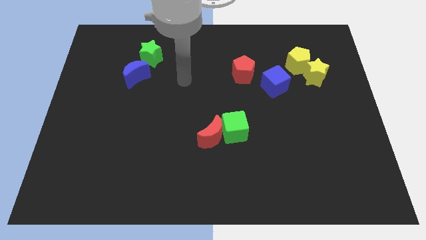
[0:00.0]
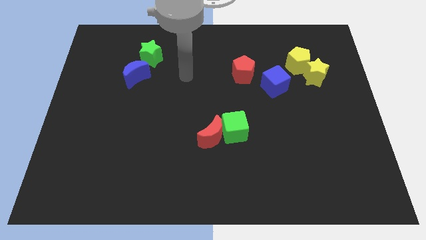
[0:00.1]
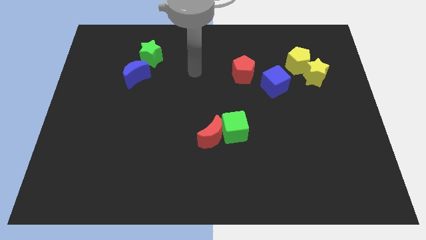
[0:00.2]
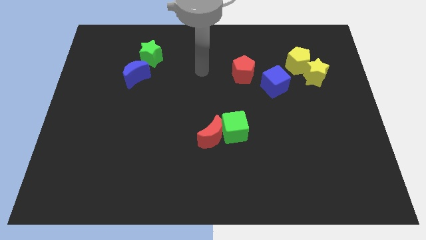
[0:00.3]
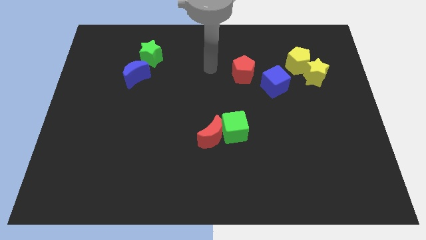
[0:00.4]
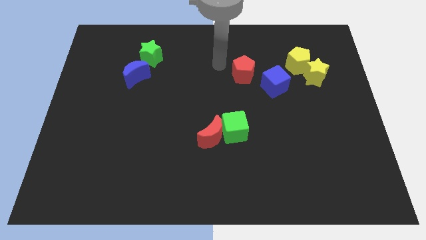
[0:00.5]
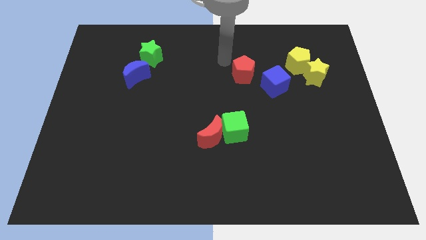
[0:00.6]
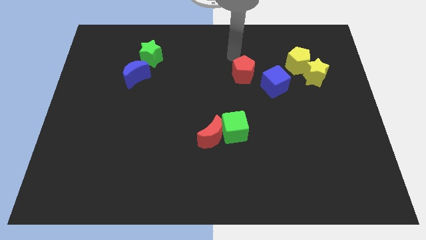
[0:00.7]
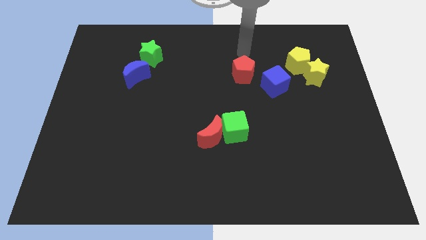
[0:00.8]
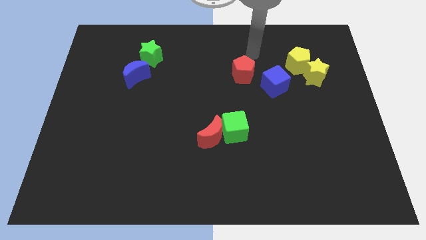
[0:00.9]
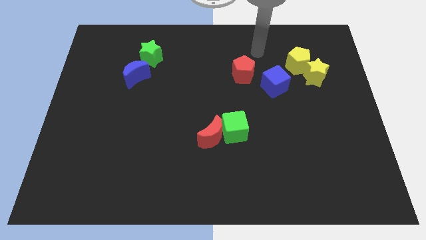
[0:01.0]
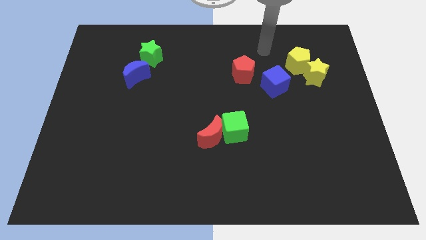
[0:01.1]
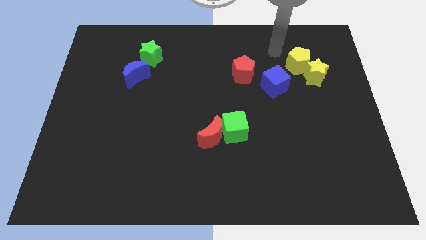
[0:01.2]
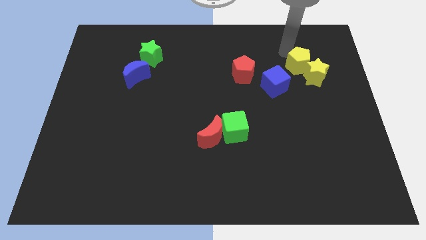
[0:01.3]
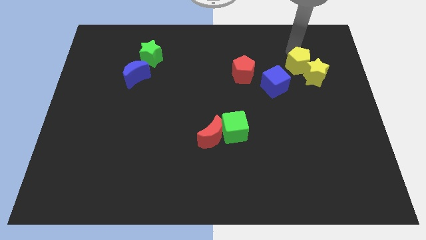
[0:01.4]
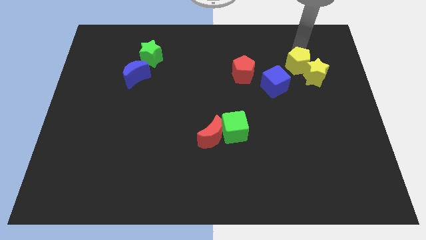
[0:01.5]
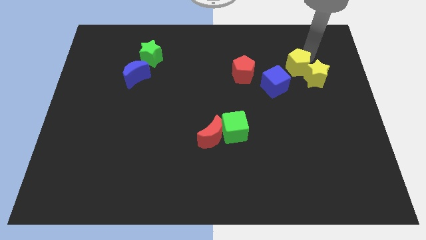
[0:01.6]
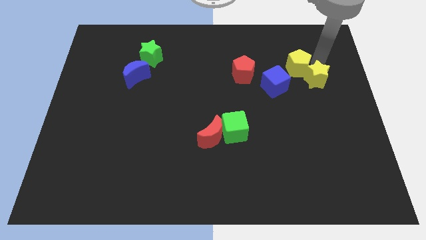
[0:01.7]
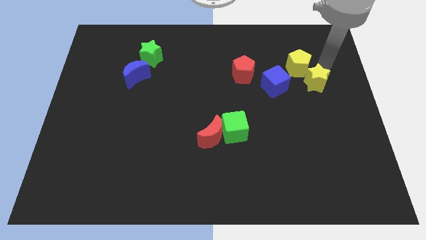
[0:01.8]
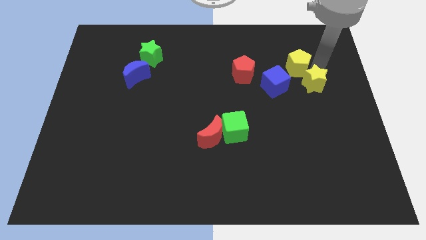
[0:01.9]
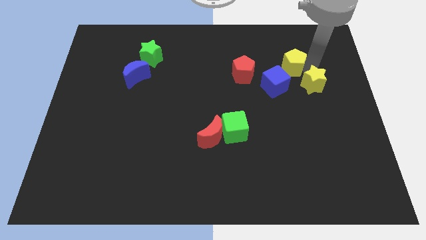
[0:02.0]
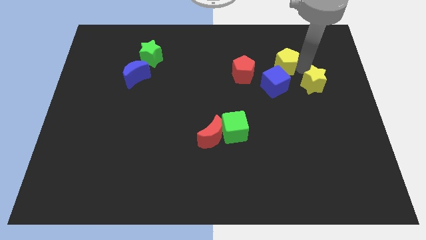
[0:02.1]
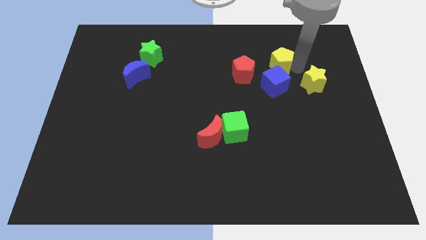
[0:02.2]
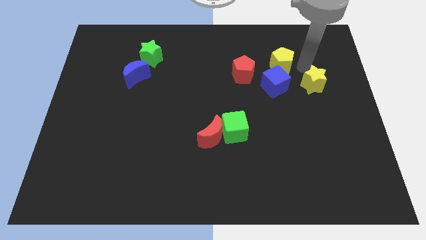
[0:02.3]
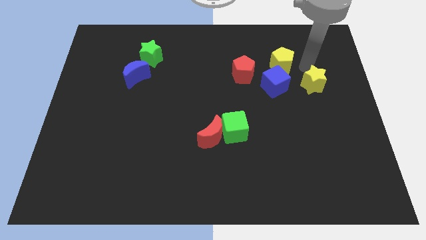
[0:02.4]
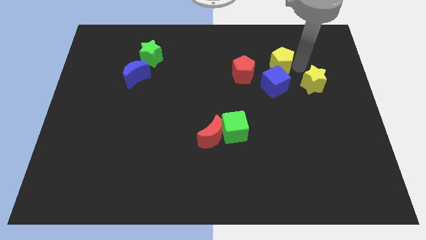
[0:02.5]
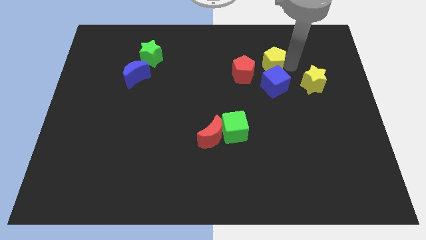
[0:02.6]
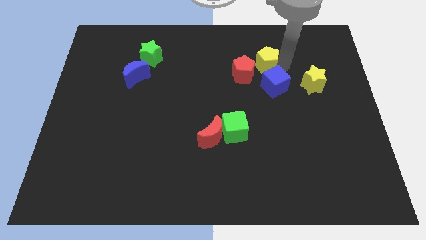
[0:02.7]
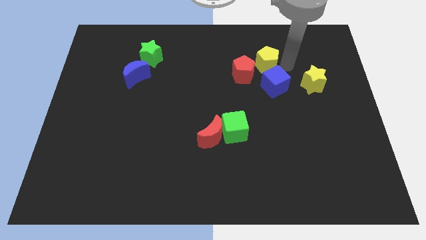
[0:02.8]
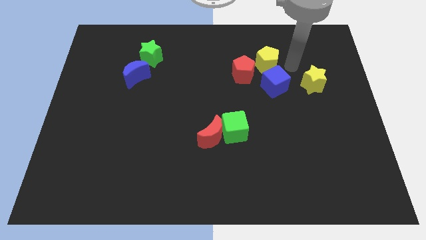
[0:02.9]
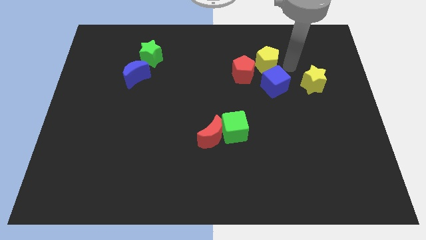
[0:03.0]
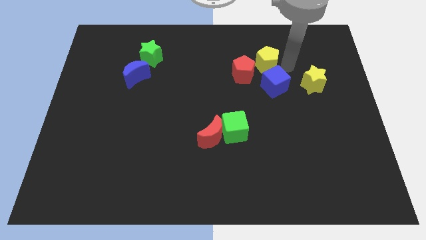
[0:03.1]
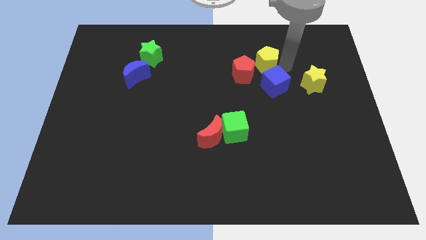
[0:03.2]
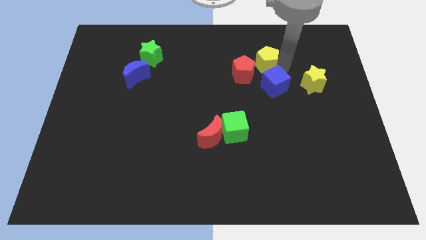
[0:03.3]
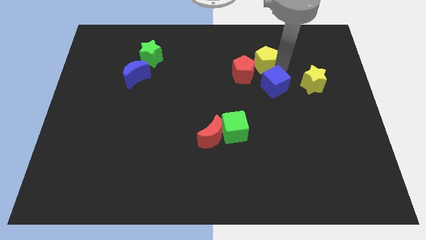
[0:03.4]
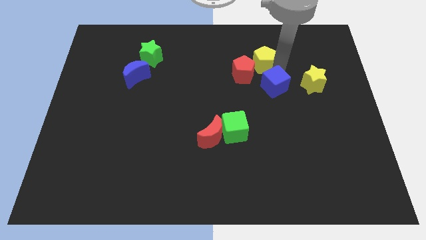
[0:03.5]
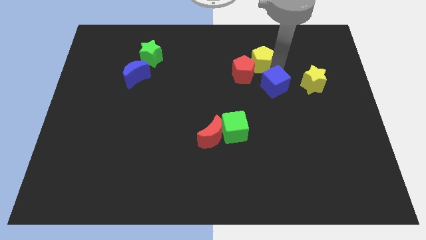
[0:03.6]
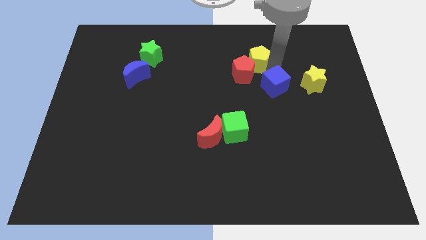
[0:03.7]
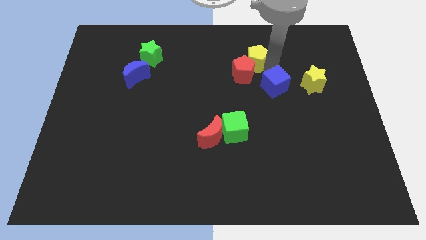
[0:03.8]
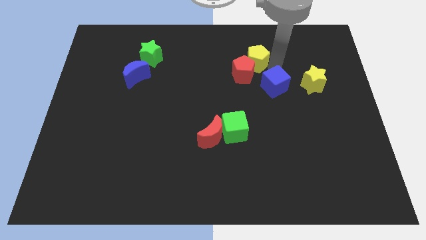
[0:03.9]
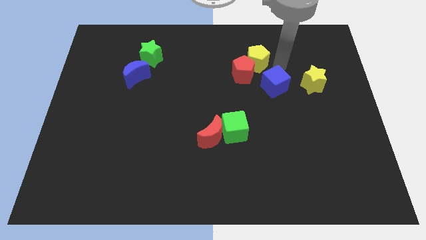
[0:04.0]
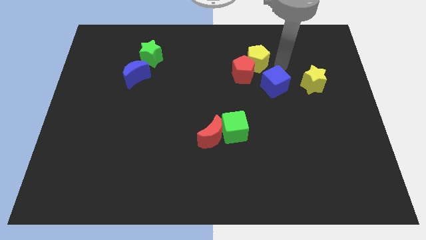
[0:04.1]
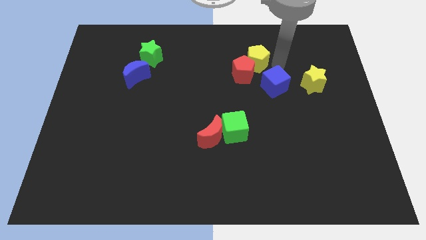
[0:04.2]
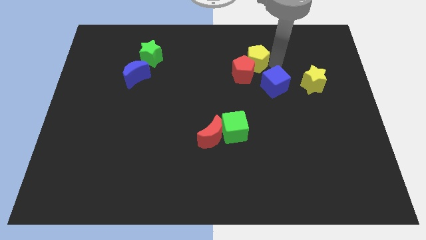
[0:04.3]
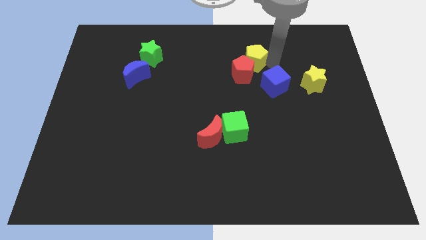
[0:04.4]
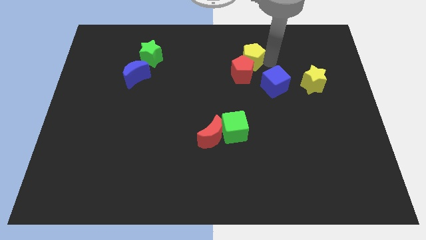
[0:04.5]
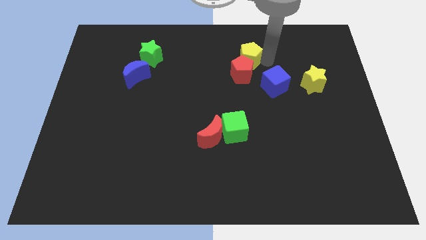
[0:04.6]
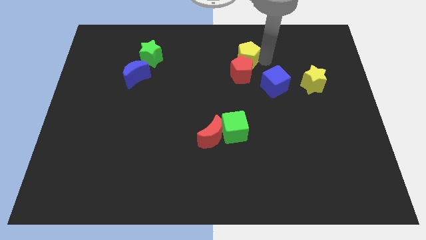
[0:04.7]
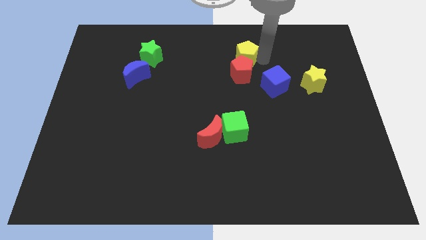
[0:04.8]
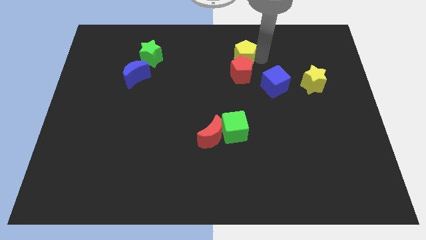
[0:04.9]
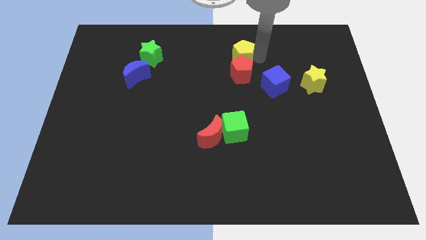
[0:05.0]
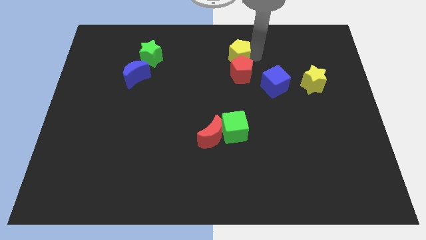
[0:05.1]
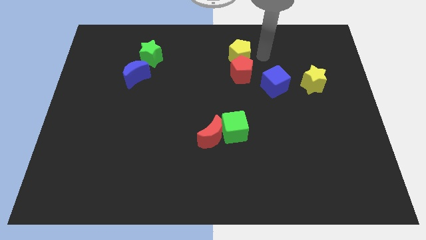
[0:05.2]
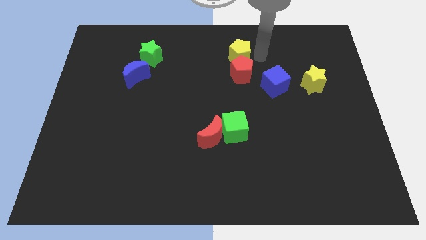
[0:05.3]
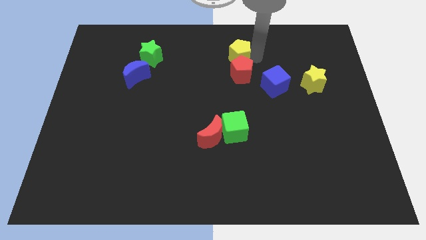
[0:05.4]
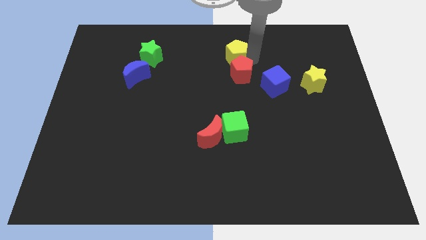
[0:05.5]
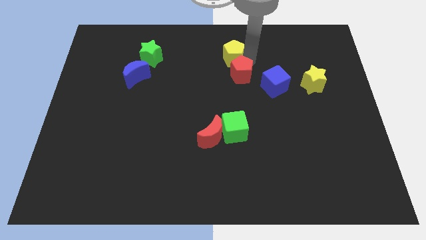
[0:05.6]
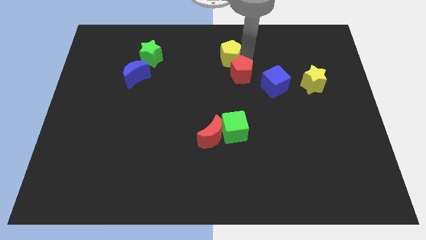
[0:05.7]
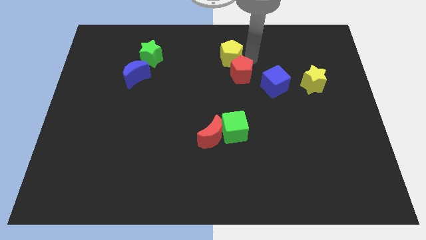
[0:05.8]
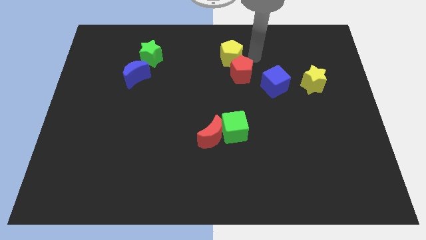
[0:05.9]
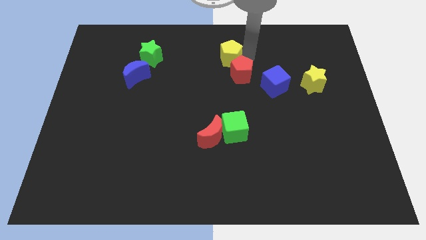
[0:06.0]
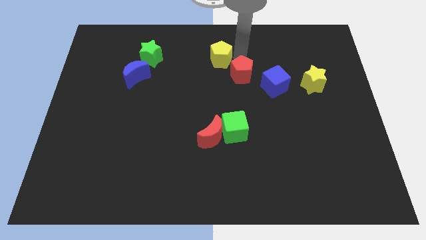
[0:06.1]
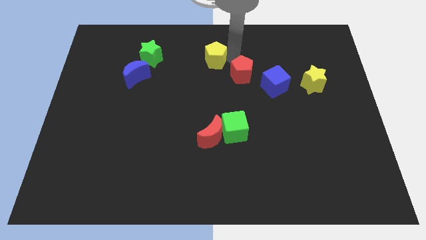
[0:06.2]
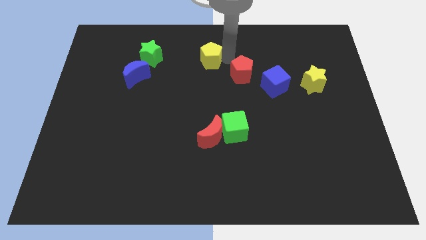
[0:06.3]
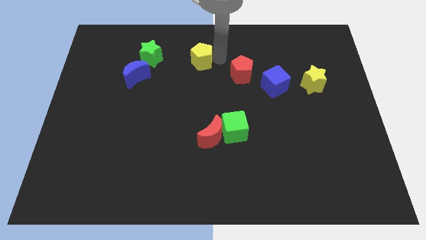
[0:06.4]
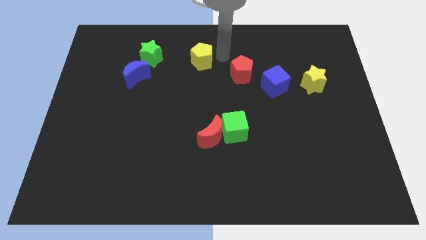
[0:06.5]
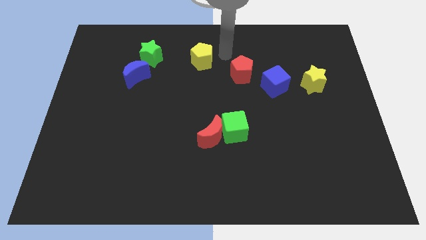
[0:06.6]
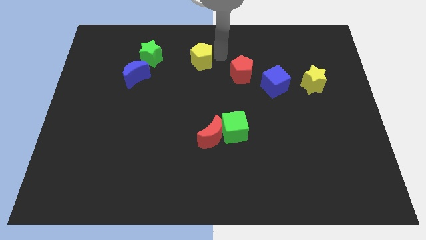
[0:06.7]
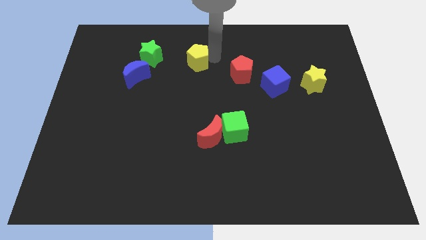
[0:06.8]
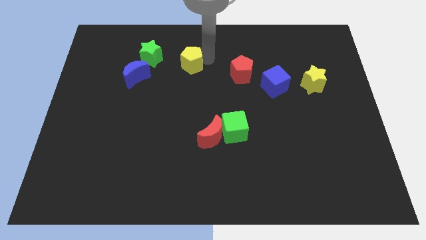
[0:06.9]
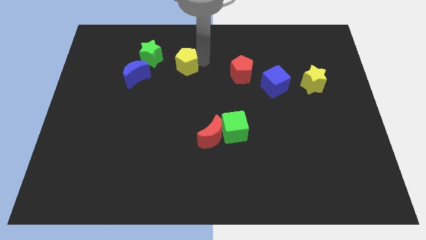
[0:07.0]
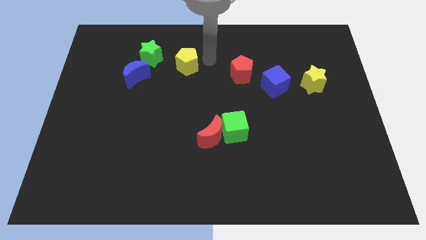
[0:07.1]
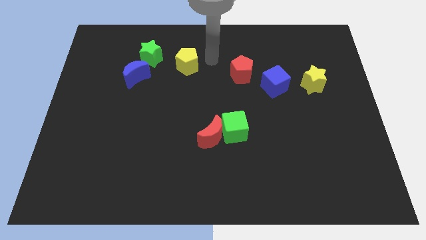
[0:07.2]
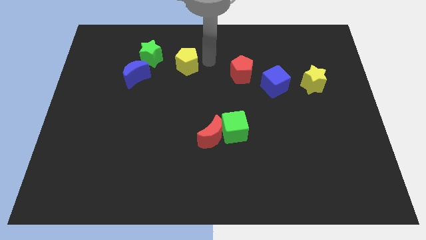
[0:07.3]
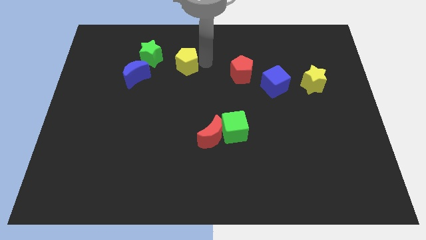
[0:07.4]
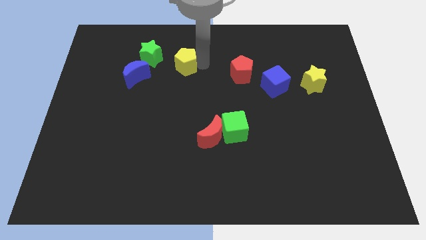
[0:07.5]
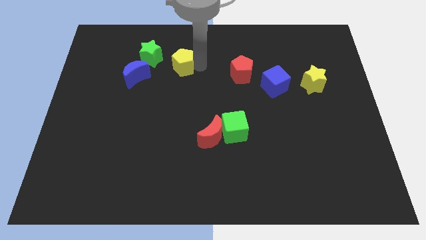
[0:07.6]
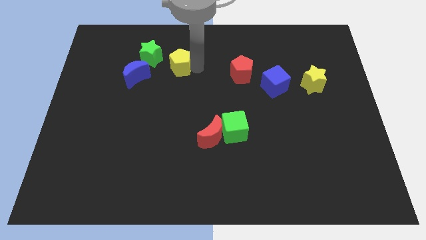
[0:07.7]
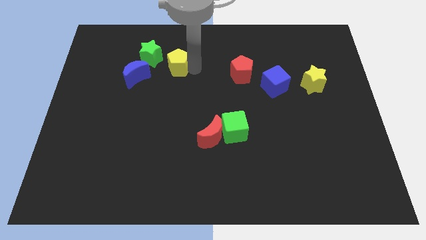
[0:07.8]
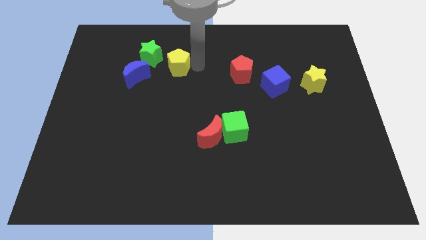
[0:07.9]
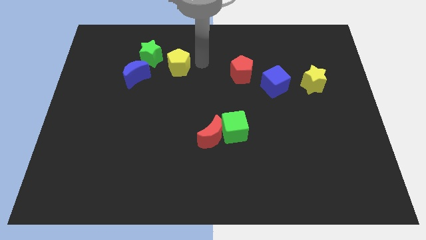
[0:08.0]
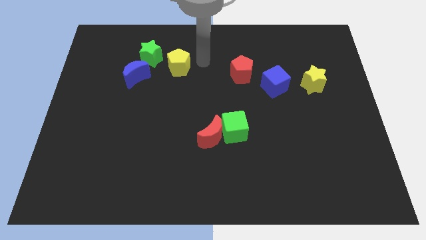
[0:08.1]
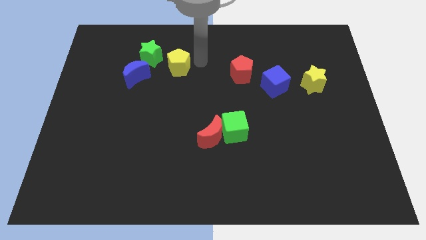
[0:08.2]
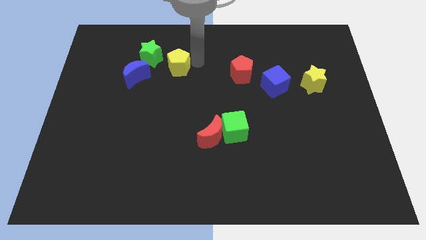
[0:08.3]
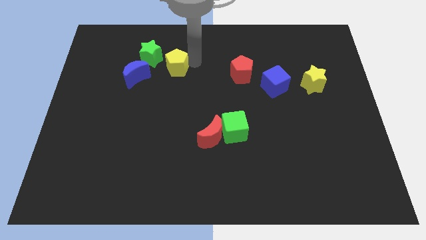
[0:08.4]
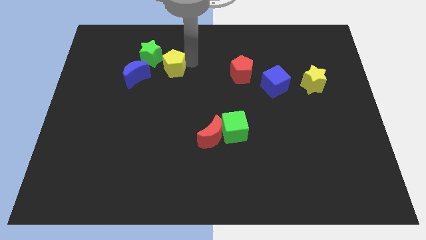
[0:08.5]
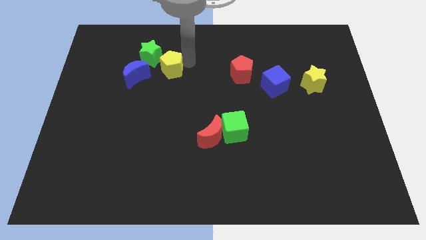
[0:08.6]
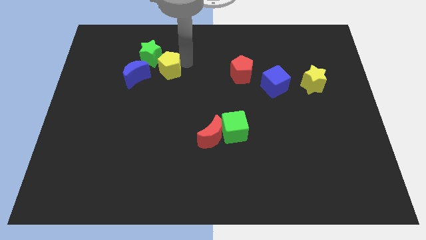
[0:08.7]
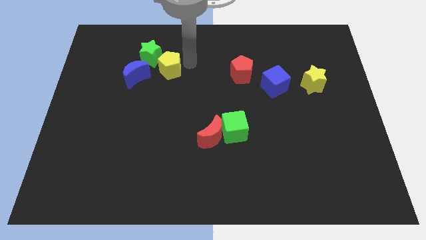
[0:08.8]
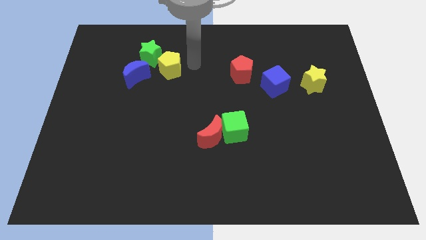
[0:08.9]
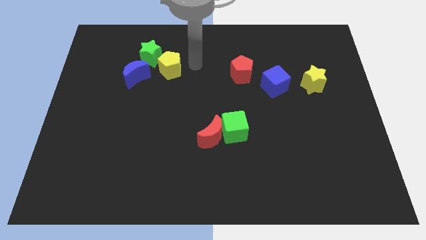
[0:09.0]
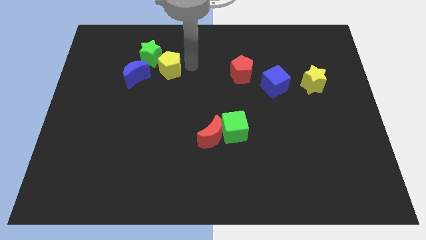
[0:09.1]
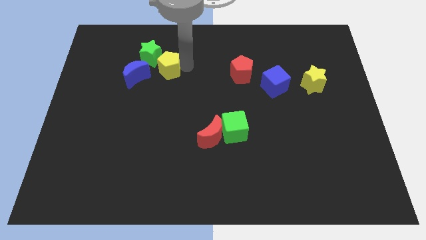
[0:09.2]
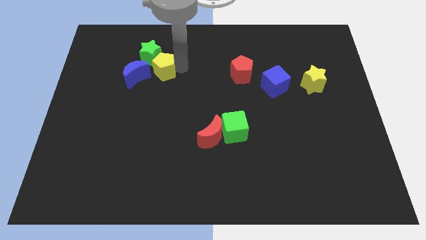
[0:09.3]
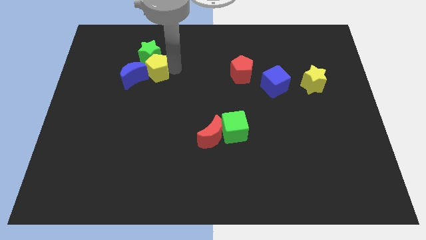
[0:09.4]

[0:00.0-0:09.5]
slide the yellow pentagon to the blue moon
